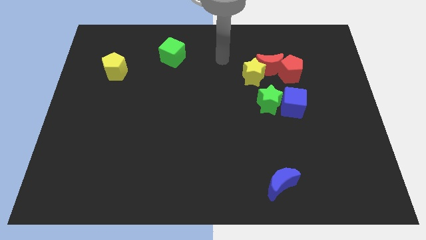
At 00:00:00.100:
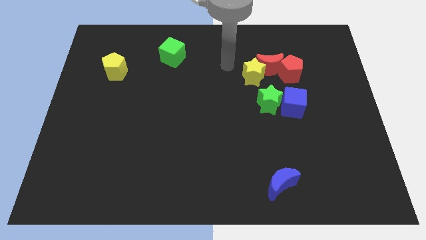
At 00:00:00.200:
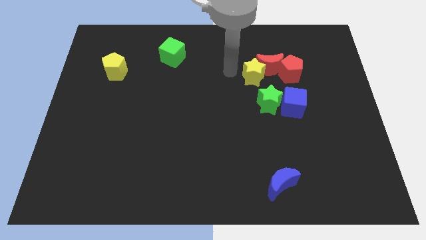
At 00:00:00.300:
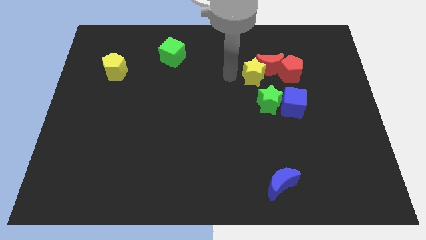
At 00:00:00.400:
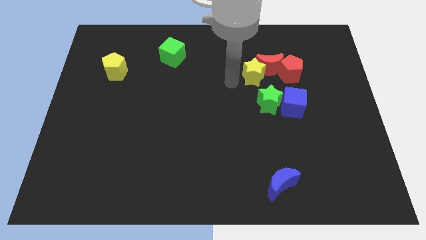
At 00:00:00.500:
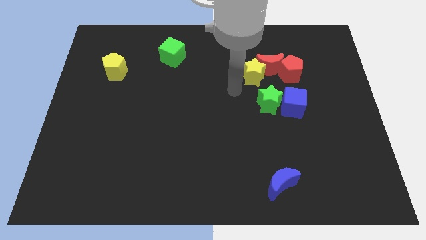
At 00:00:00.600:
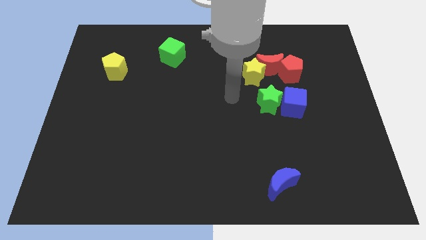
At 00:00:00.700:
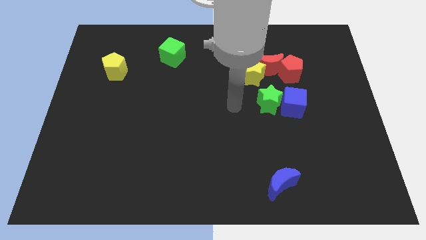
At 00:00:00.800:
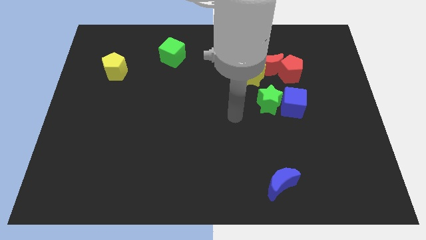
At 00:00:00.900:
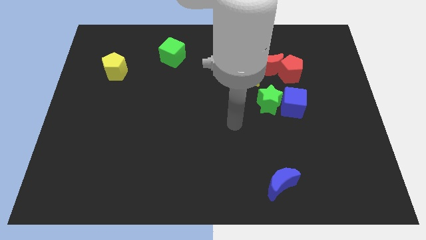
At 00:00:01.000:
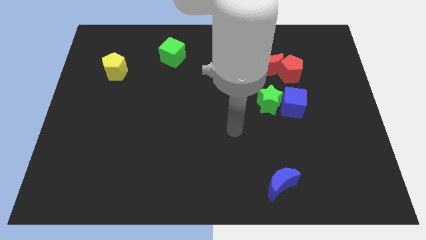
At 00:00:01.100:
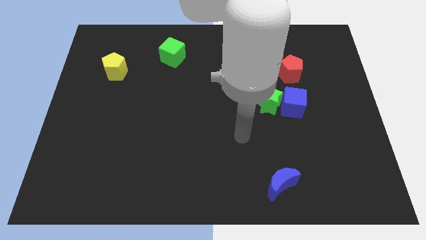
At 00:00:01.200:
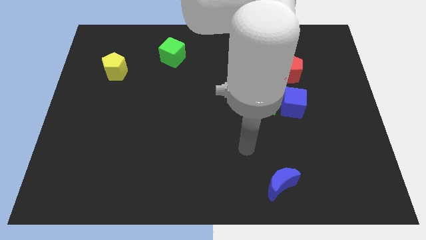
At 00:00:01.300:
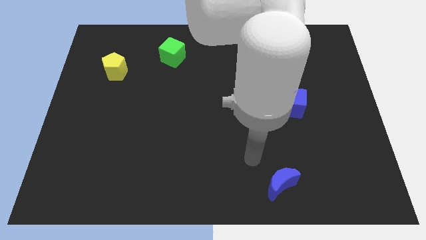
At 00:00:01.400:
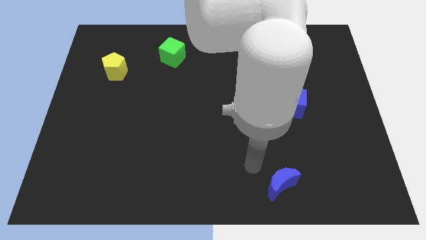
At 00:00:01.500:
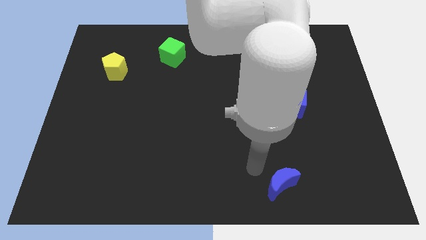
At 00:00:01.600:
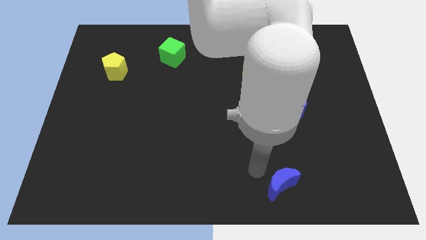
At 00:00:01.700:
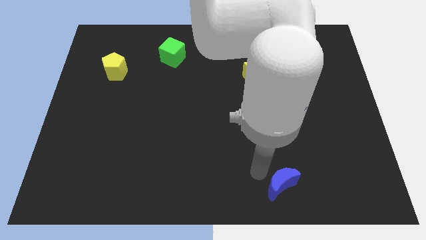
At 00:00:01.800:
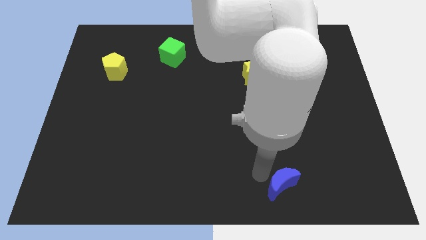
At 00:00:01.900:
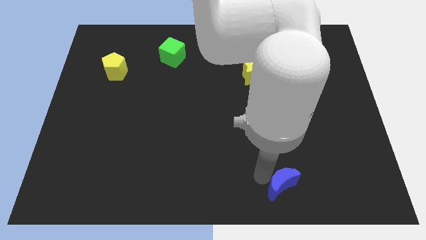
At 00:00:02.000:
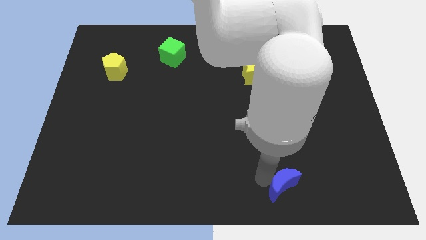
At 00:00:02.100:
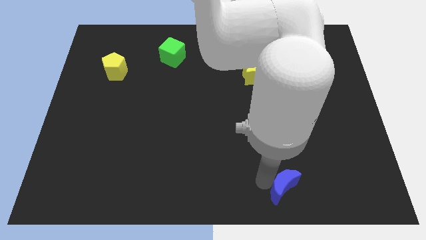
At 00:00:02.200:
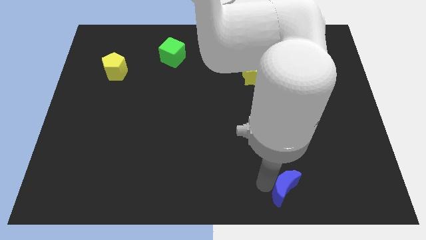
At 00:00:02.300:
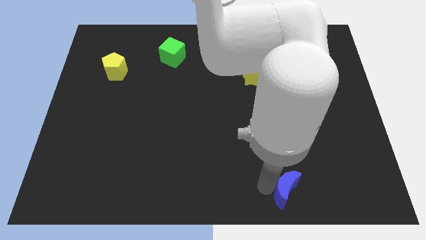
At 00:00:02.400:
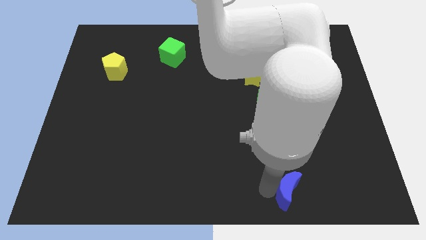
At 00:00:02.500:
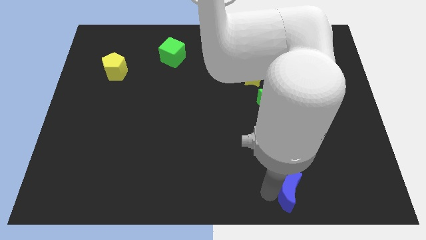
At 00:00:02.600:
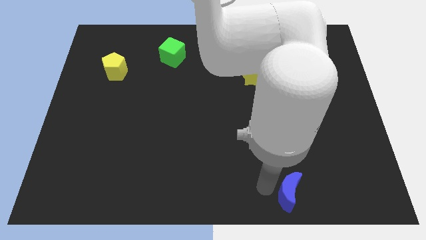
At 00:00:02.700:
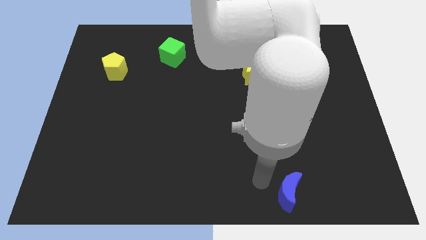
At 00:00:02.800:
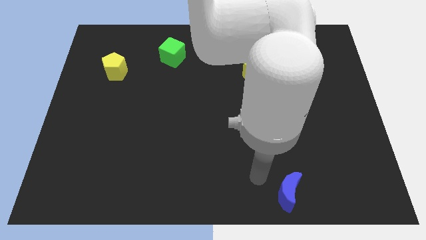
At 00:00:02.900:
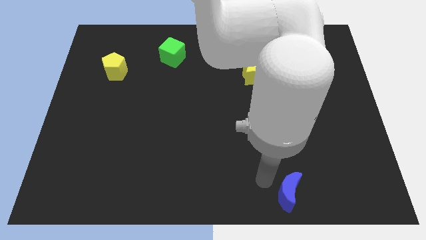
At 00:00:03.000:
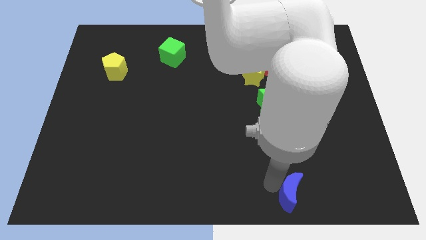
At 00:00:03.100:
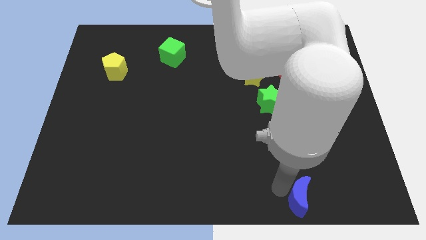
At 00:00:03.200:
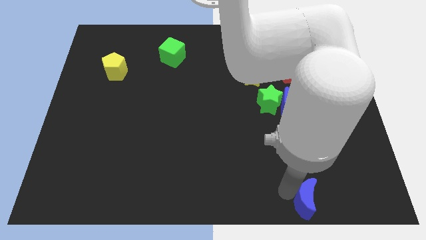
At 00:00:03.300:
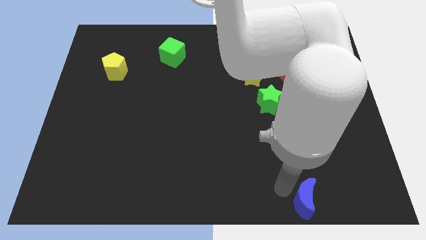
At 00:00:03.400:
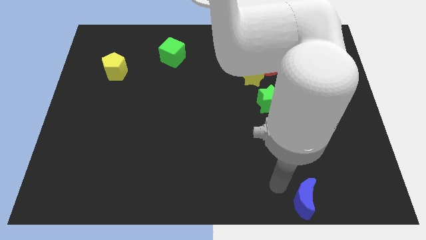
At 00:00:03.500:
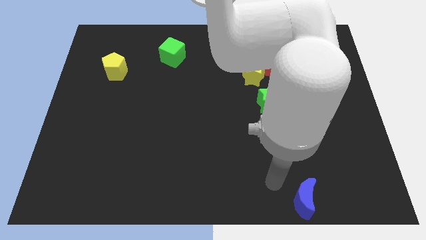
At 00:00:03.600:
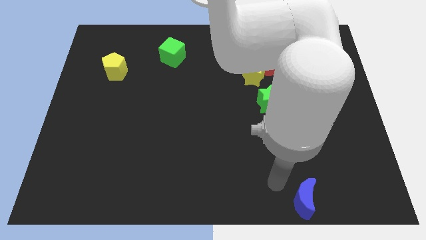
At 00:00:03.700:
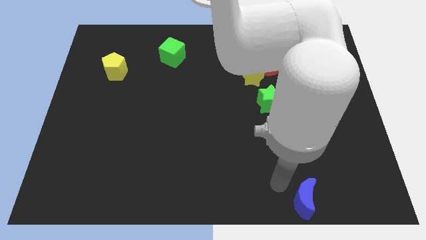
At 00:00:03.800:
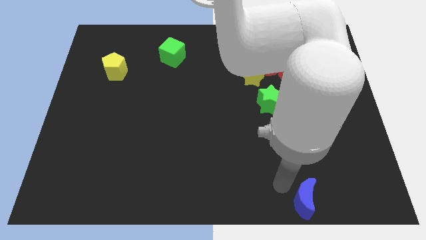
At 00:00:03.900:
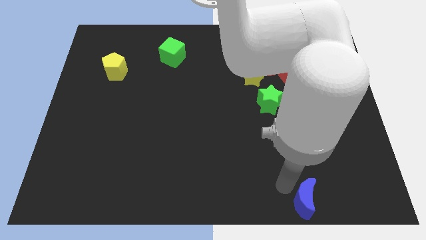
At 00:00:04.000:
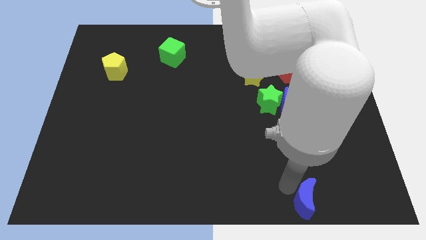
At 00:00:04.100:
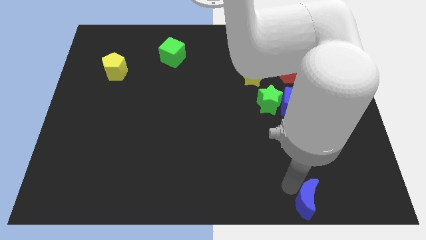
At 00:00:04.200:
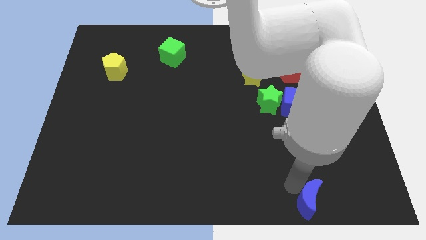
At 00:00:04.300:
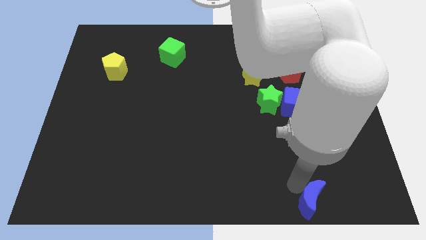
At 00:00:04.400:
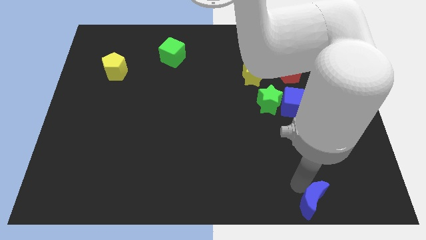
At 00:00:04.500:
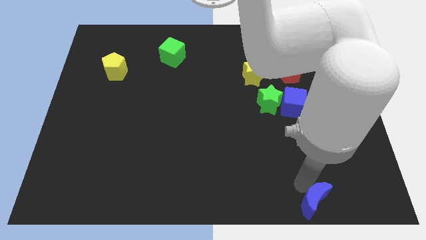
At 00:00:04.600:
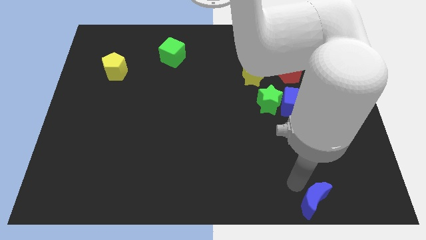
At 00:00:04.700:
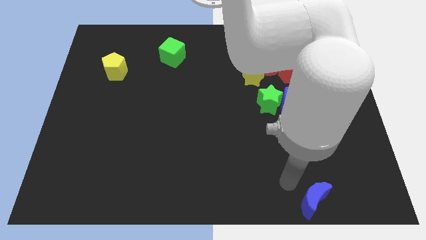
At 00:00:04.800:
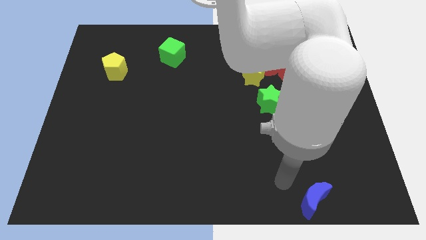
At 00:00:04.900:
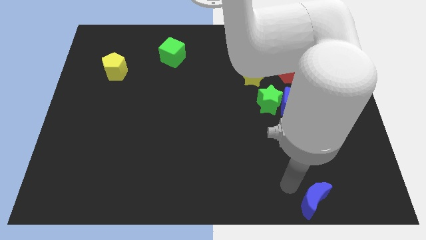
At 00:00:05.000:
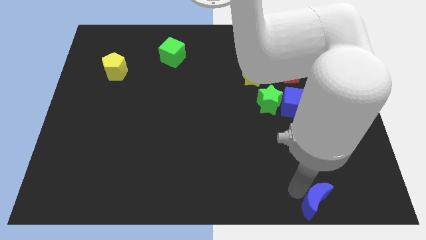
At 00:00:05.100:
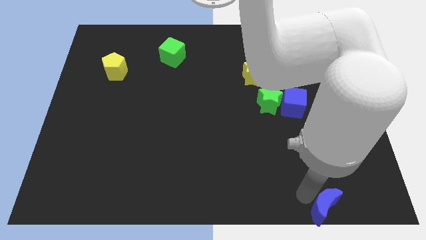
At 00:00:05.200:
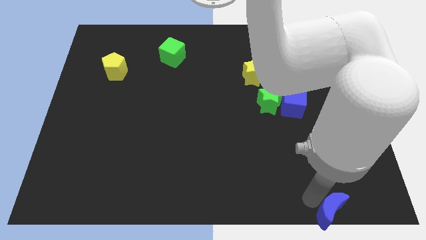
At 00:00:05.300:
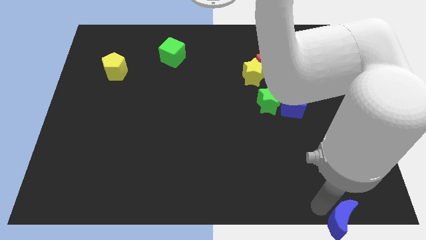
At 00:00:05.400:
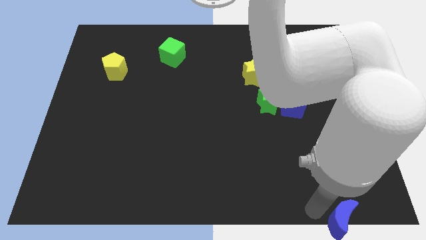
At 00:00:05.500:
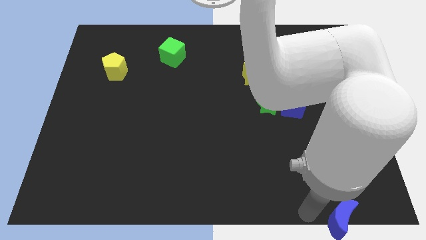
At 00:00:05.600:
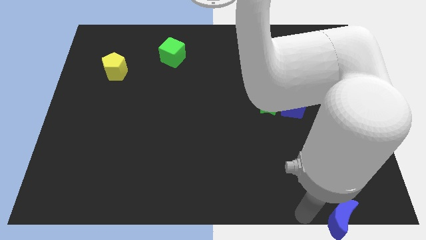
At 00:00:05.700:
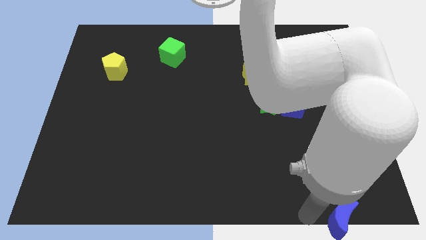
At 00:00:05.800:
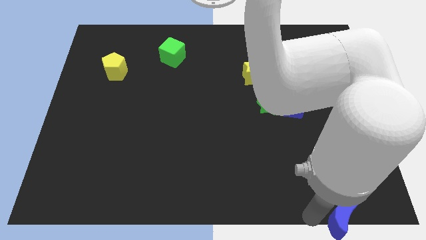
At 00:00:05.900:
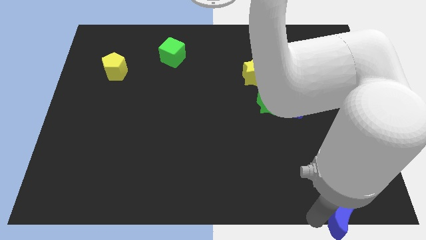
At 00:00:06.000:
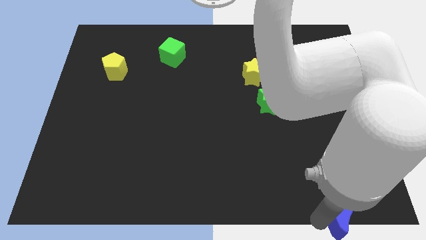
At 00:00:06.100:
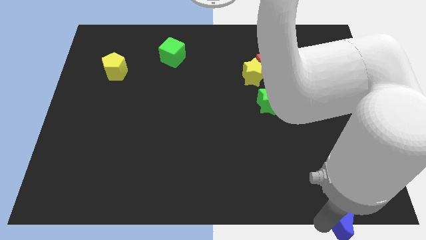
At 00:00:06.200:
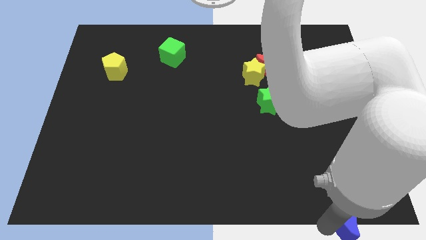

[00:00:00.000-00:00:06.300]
push the blue moon to the lower right corner
